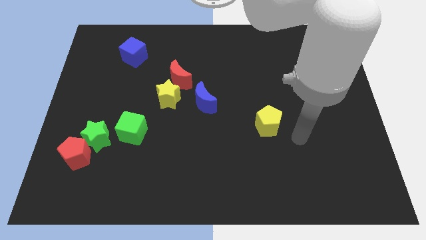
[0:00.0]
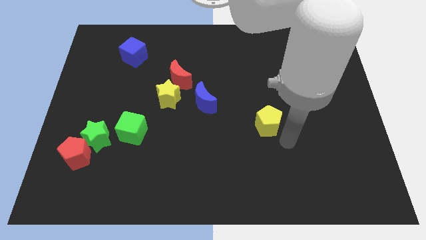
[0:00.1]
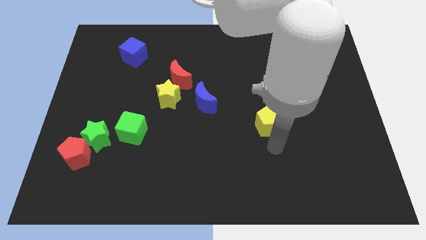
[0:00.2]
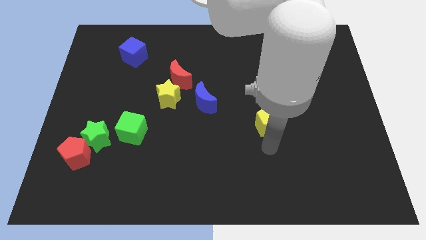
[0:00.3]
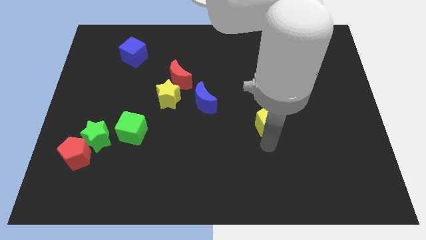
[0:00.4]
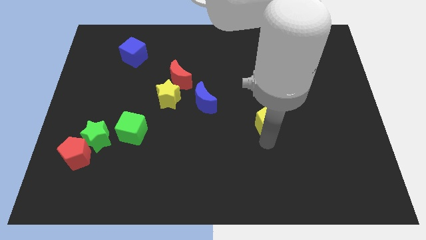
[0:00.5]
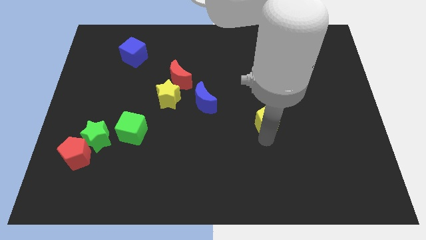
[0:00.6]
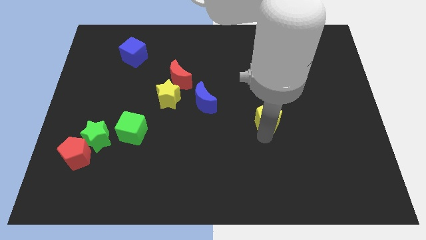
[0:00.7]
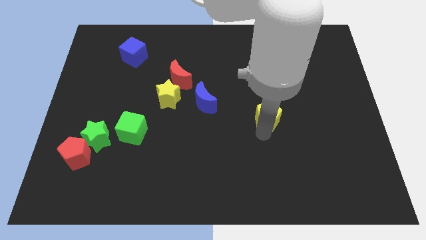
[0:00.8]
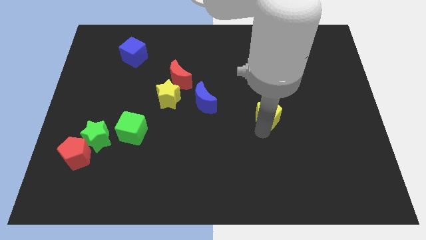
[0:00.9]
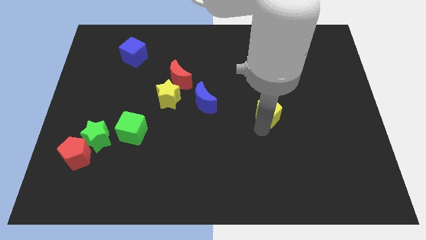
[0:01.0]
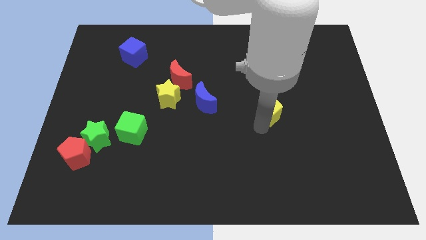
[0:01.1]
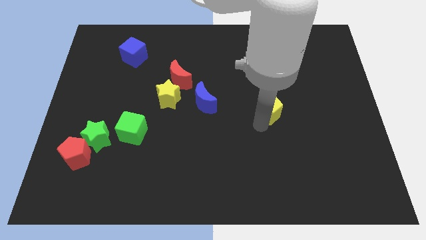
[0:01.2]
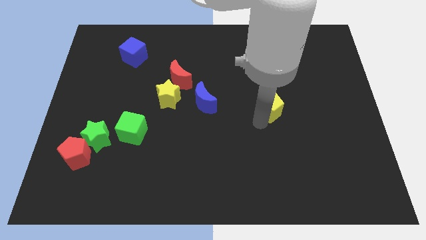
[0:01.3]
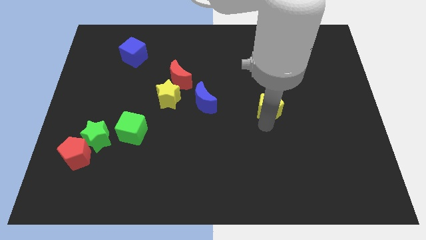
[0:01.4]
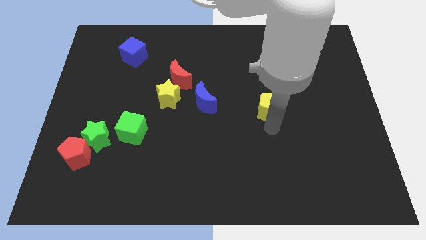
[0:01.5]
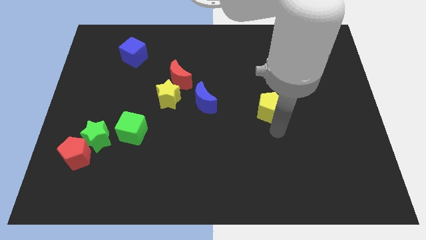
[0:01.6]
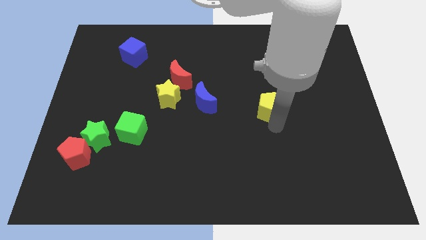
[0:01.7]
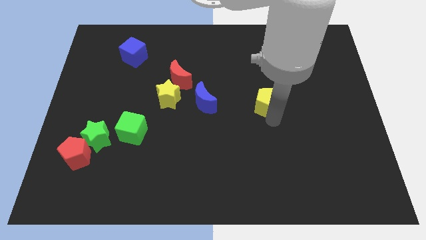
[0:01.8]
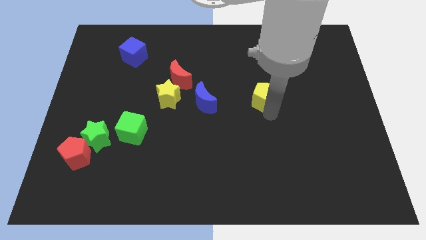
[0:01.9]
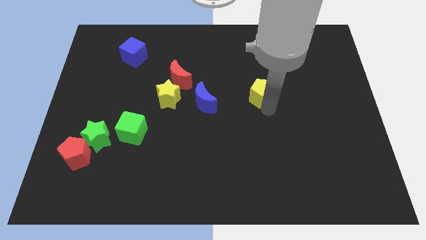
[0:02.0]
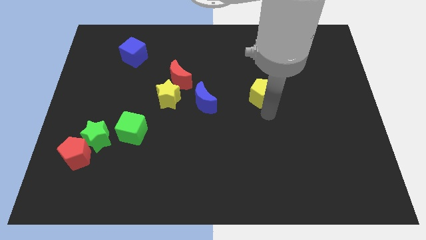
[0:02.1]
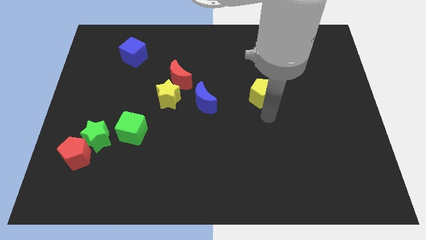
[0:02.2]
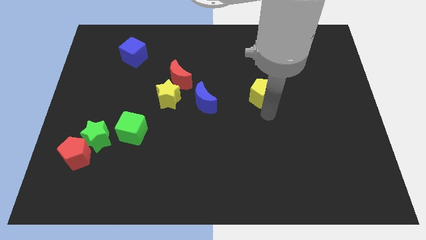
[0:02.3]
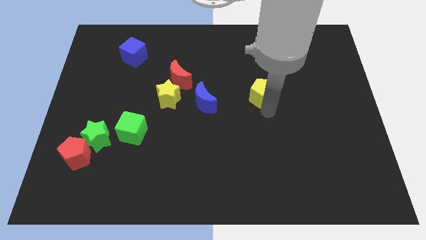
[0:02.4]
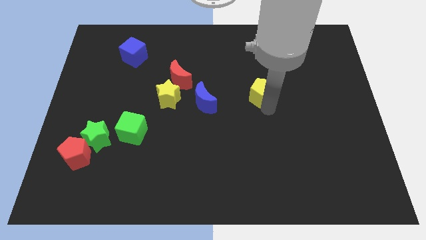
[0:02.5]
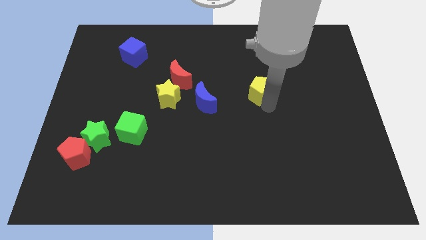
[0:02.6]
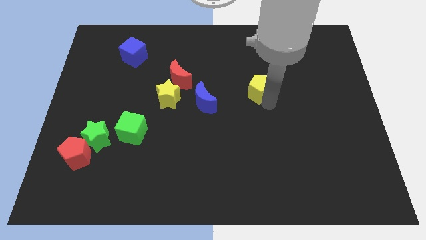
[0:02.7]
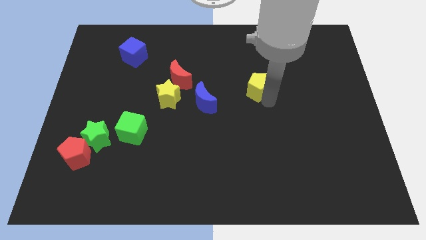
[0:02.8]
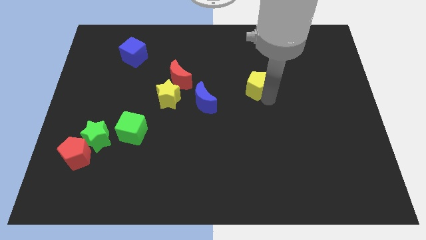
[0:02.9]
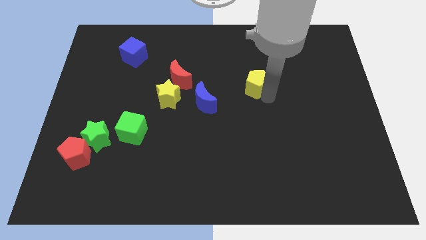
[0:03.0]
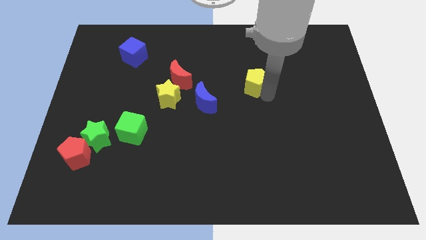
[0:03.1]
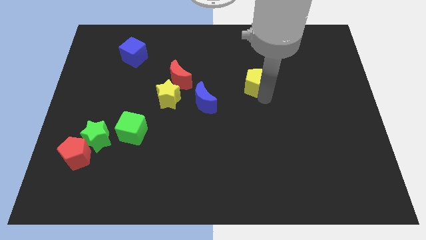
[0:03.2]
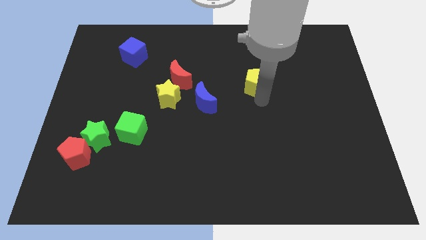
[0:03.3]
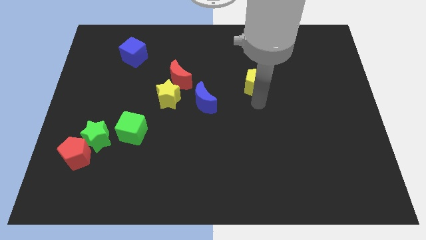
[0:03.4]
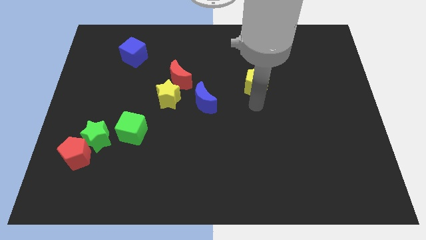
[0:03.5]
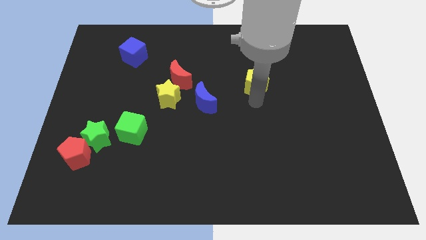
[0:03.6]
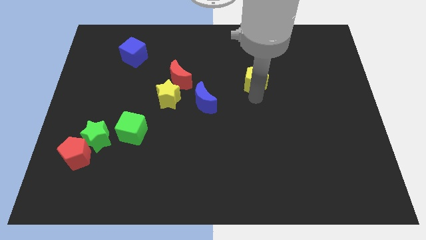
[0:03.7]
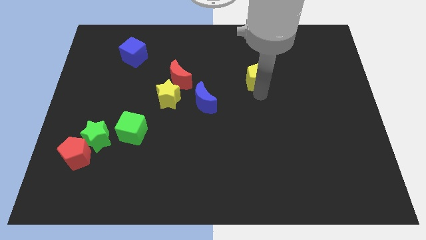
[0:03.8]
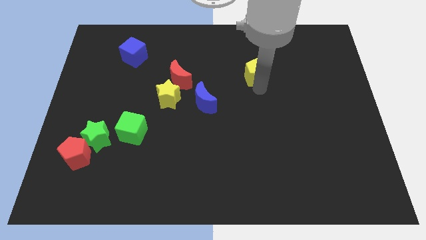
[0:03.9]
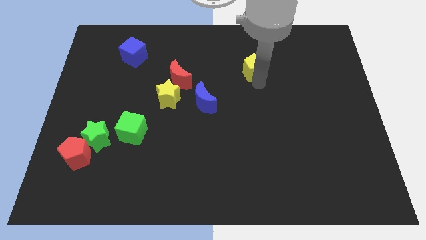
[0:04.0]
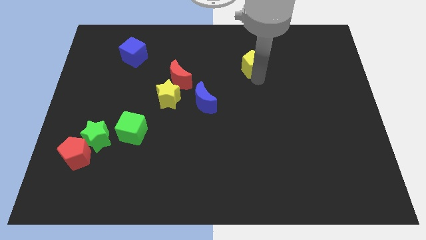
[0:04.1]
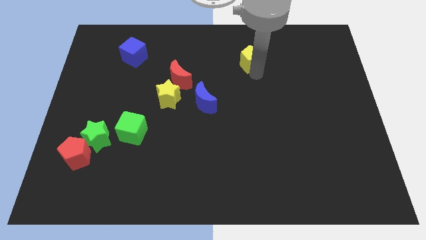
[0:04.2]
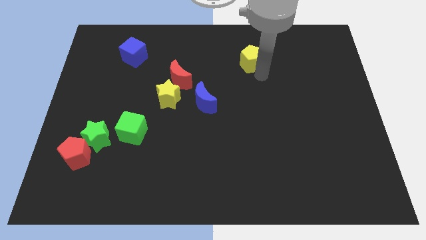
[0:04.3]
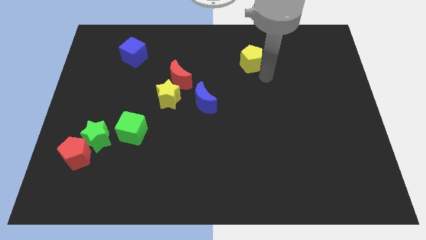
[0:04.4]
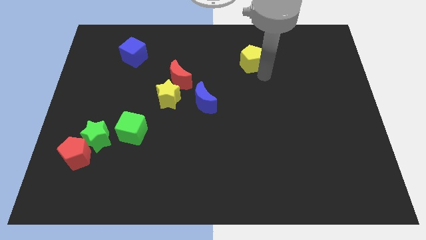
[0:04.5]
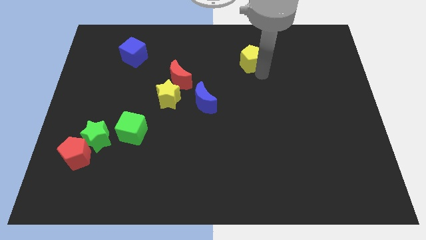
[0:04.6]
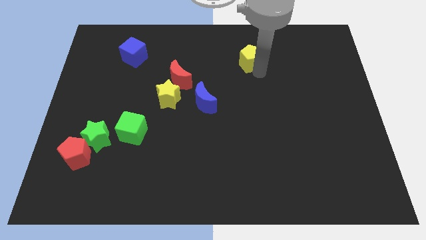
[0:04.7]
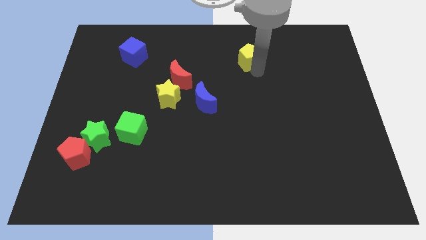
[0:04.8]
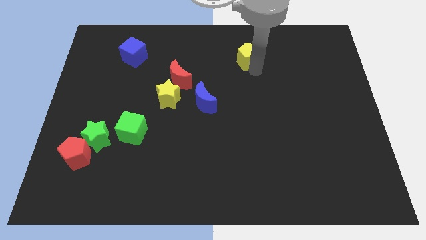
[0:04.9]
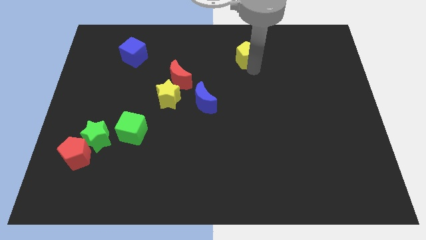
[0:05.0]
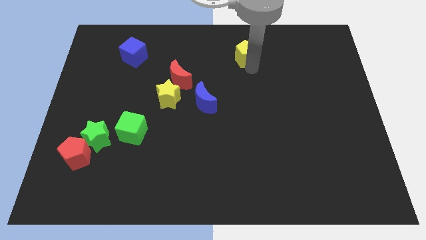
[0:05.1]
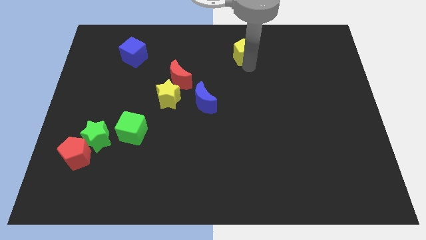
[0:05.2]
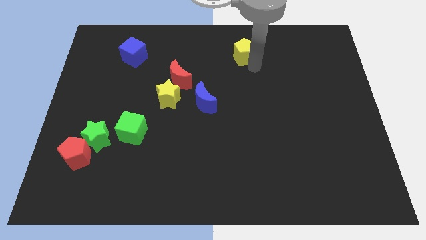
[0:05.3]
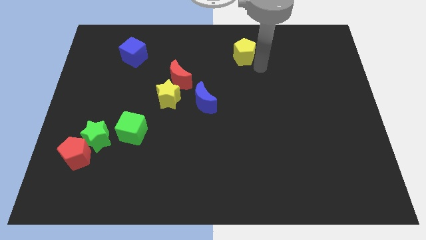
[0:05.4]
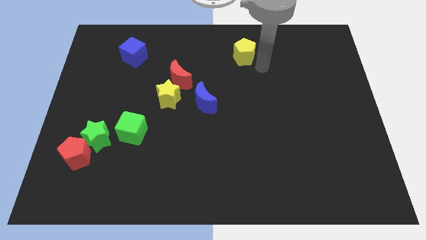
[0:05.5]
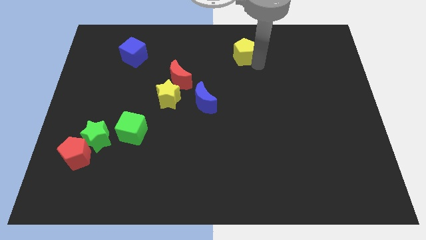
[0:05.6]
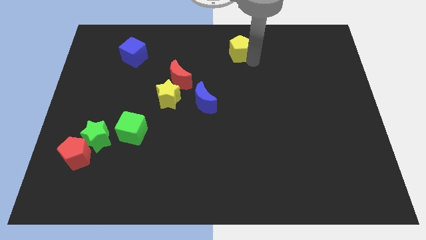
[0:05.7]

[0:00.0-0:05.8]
slide the yellow pentagon to the top
